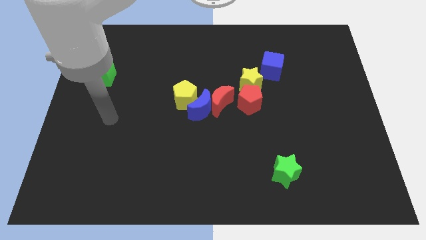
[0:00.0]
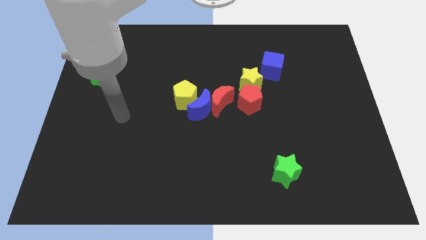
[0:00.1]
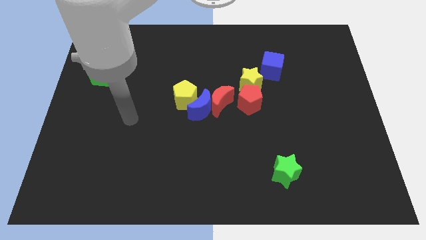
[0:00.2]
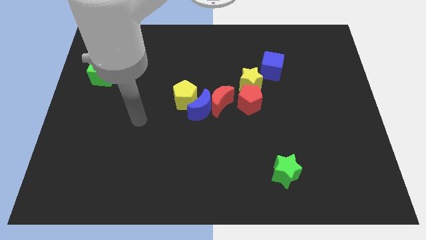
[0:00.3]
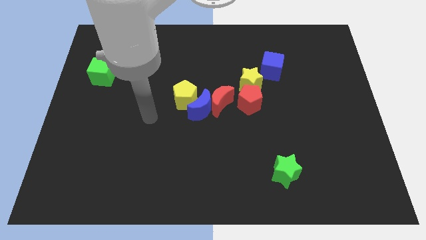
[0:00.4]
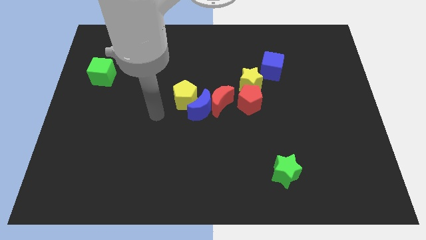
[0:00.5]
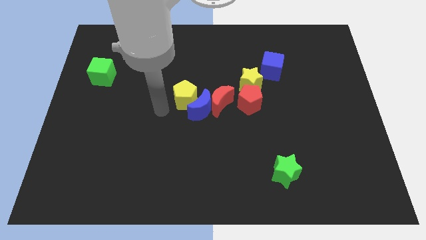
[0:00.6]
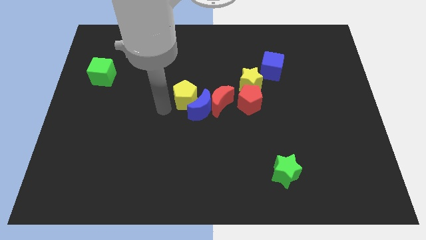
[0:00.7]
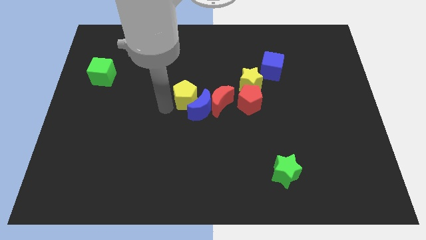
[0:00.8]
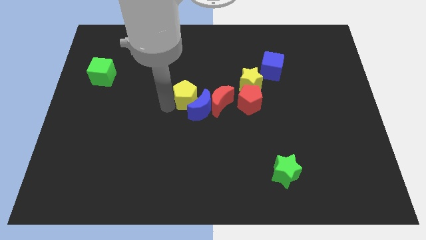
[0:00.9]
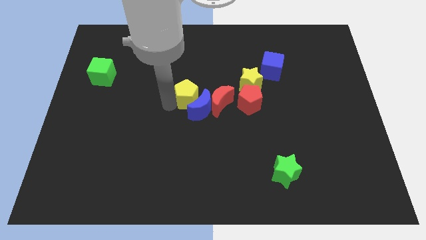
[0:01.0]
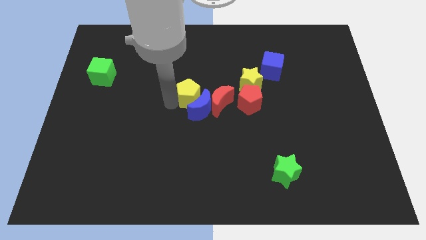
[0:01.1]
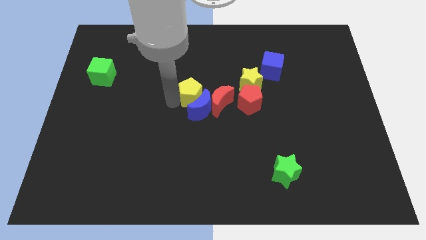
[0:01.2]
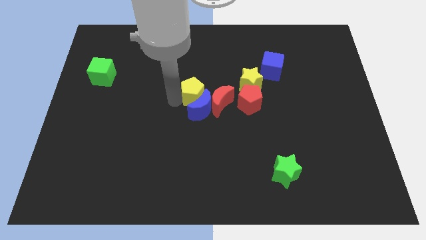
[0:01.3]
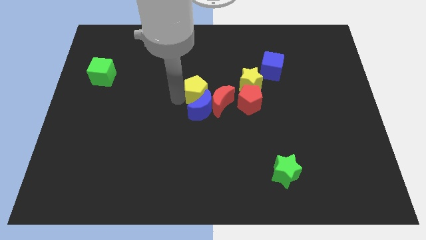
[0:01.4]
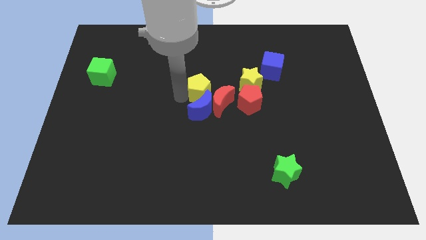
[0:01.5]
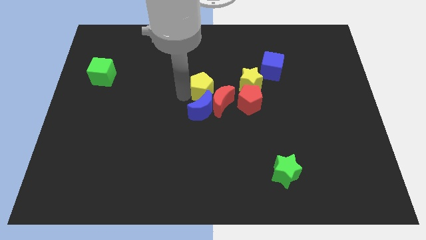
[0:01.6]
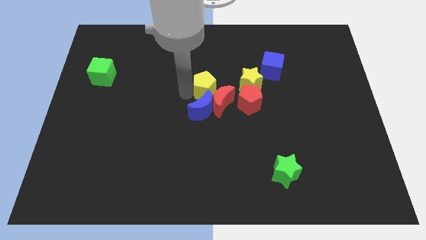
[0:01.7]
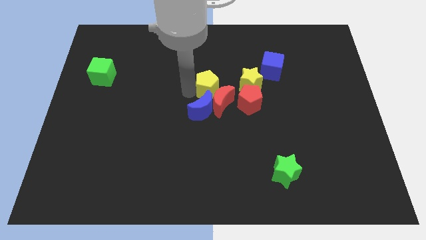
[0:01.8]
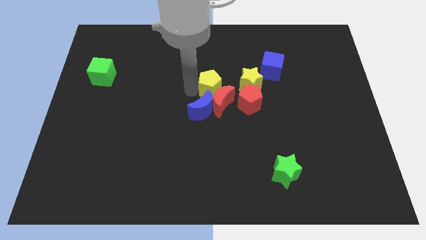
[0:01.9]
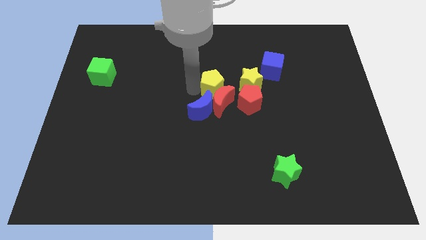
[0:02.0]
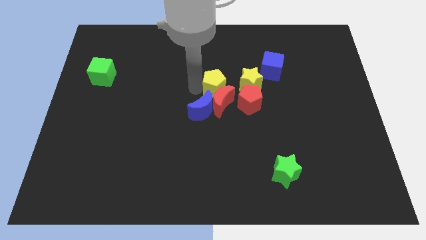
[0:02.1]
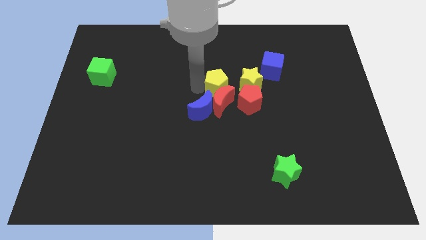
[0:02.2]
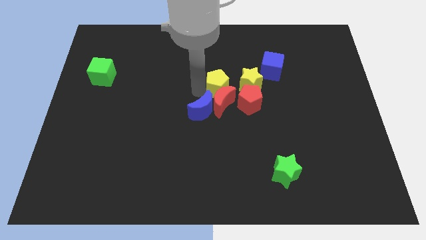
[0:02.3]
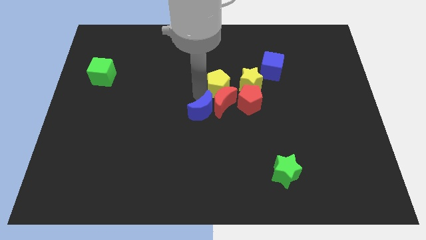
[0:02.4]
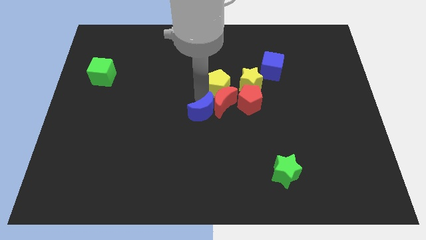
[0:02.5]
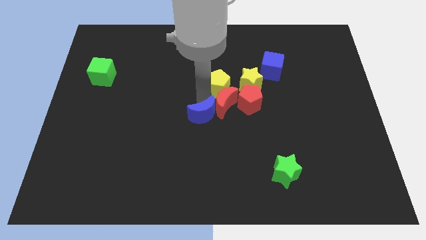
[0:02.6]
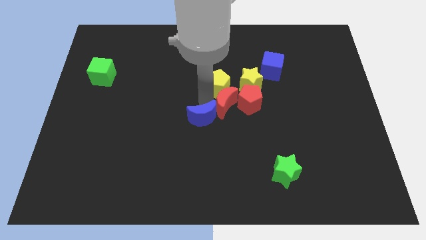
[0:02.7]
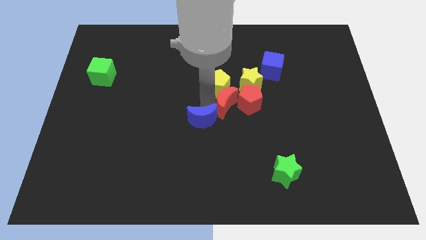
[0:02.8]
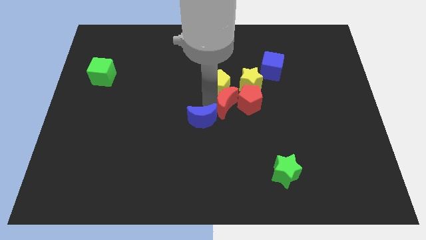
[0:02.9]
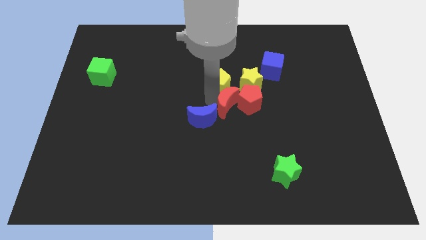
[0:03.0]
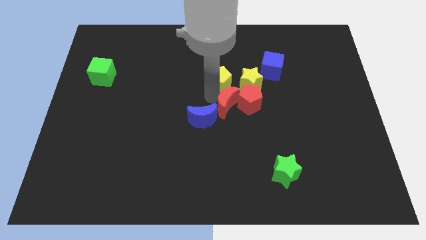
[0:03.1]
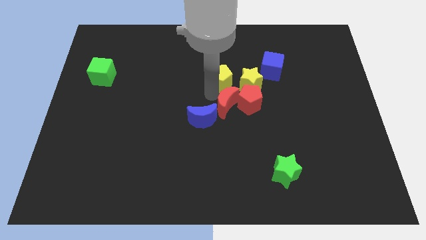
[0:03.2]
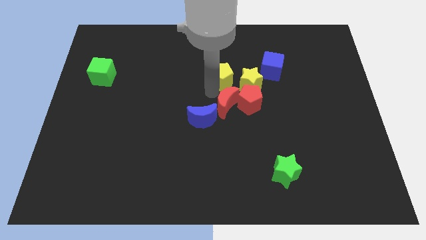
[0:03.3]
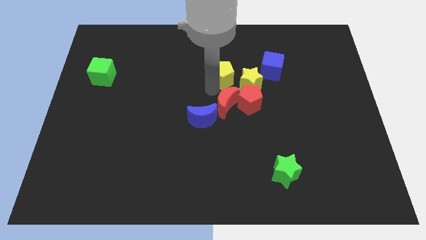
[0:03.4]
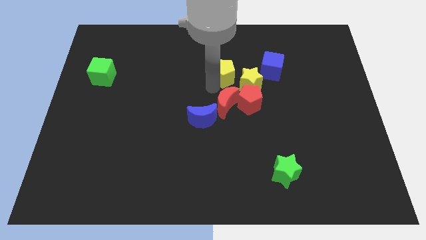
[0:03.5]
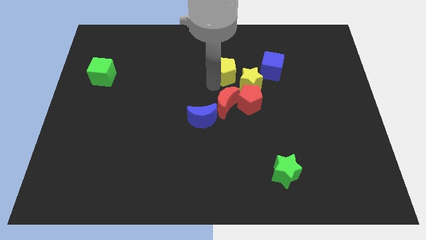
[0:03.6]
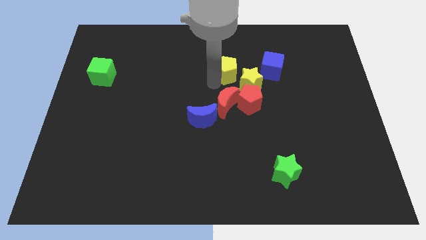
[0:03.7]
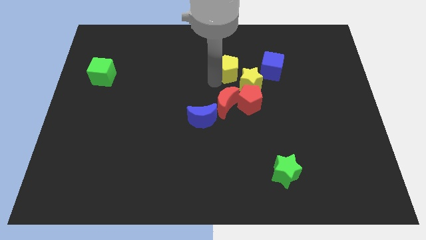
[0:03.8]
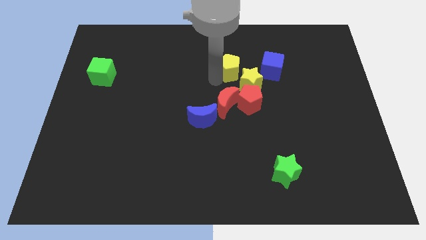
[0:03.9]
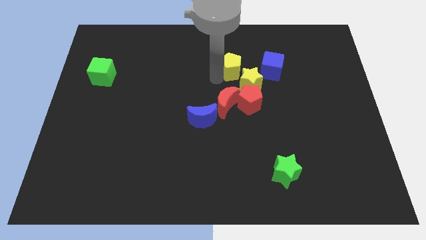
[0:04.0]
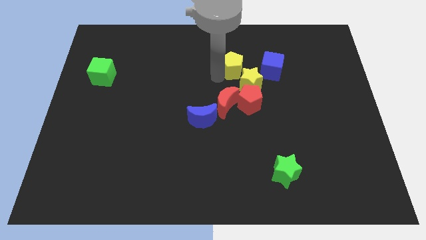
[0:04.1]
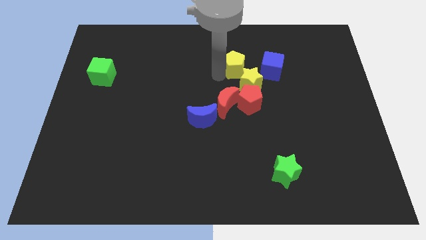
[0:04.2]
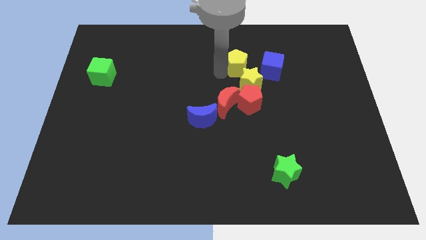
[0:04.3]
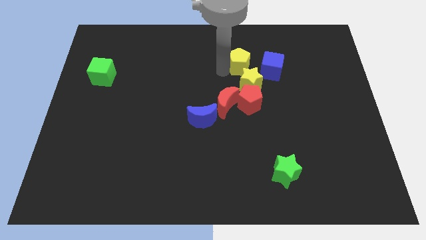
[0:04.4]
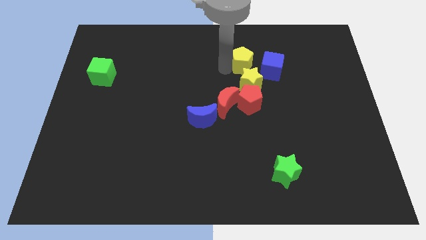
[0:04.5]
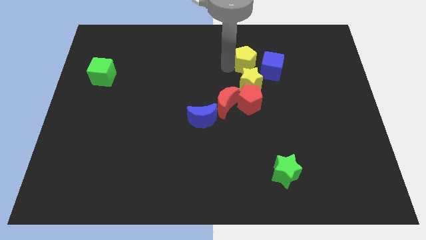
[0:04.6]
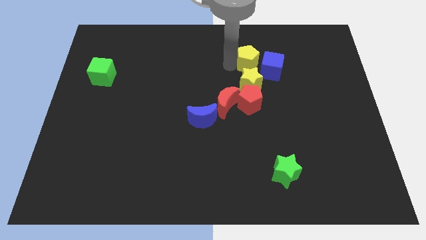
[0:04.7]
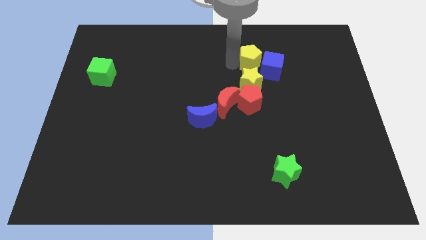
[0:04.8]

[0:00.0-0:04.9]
slide the yellow pentagon close to the blue cube

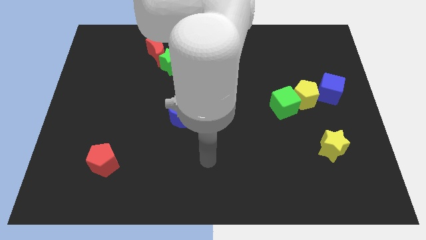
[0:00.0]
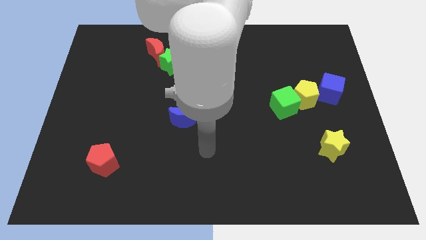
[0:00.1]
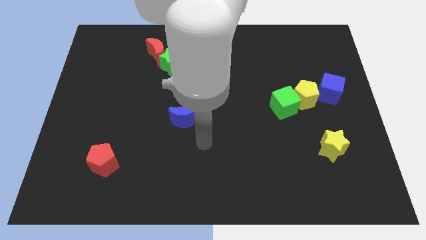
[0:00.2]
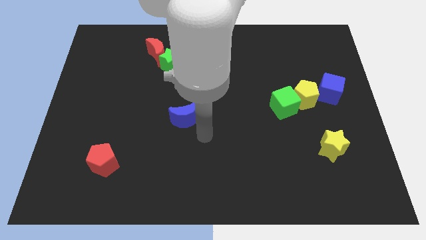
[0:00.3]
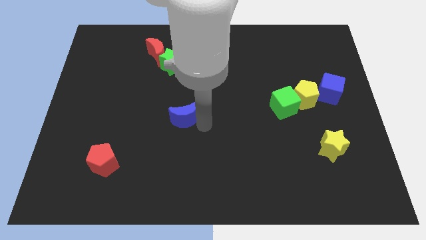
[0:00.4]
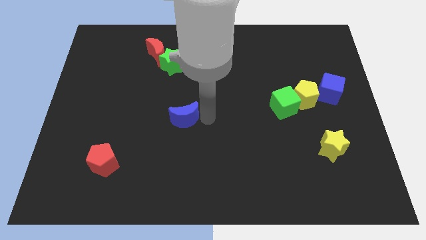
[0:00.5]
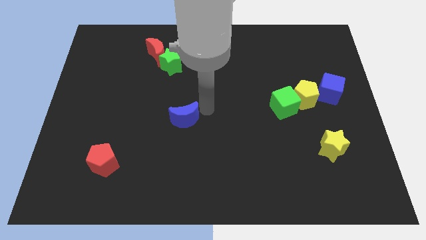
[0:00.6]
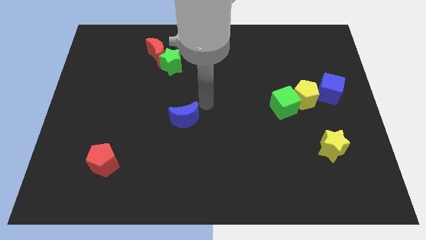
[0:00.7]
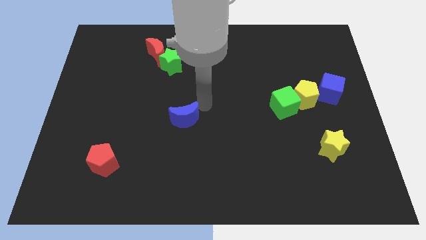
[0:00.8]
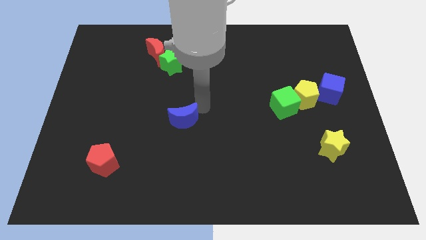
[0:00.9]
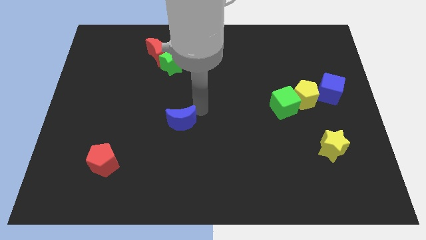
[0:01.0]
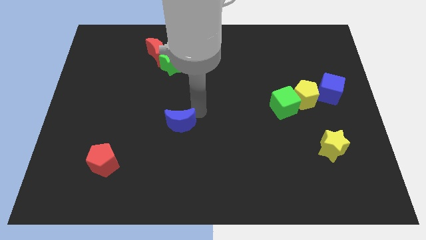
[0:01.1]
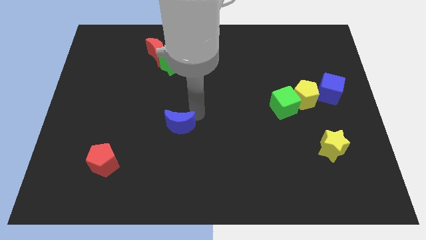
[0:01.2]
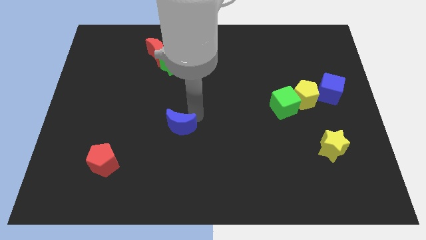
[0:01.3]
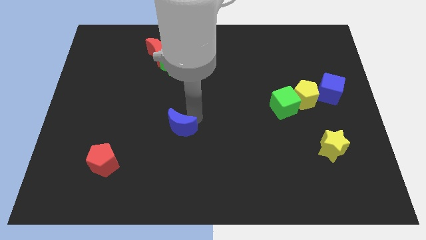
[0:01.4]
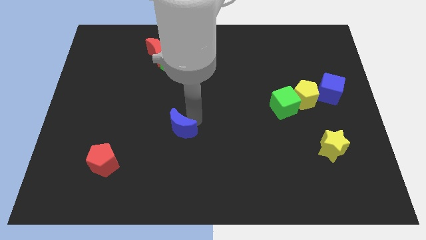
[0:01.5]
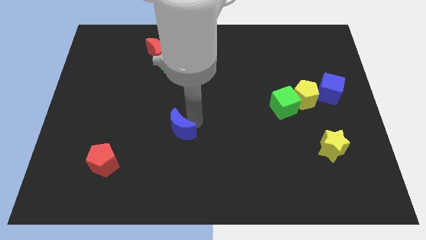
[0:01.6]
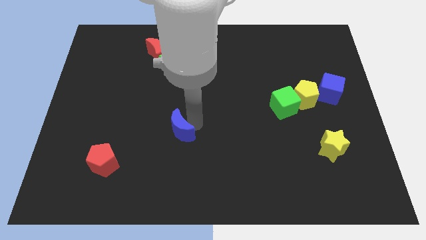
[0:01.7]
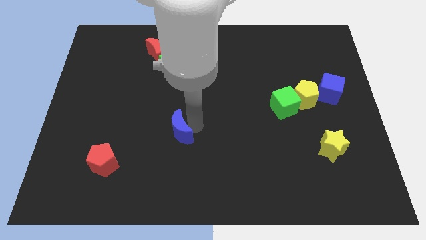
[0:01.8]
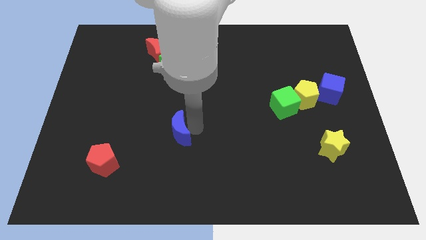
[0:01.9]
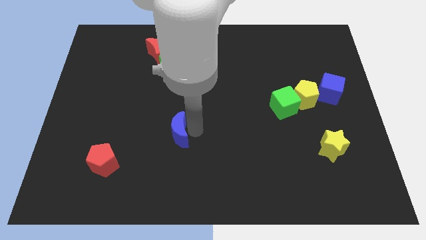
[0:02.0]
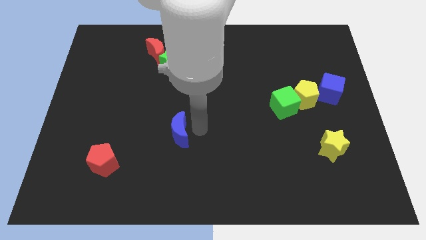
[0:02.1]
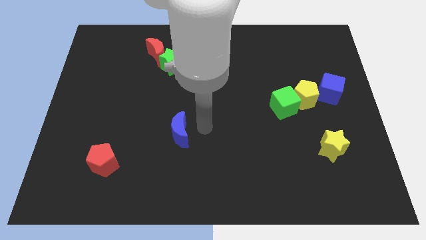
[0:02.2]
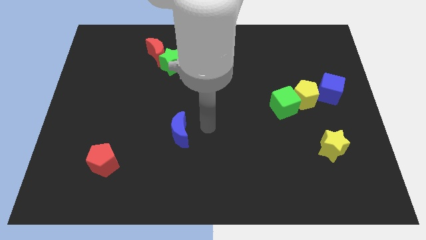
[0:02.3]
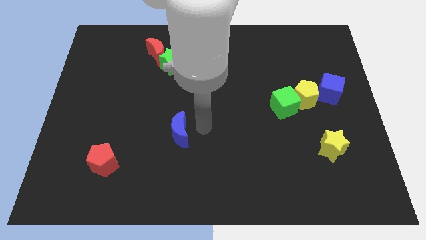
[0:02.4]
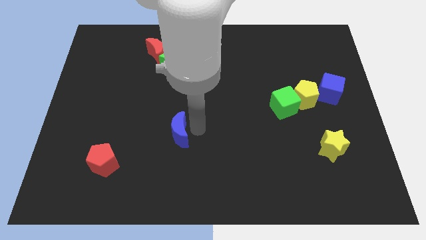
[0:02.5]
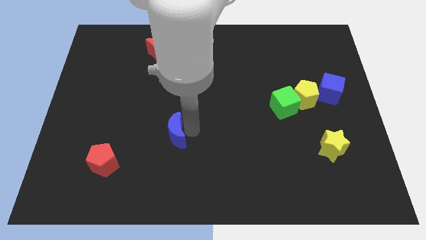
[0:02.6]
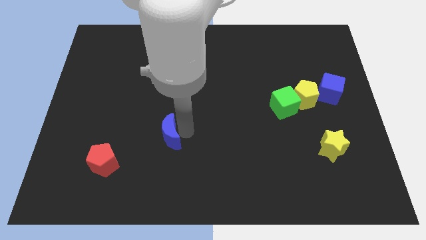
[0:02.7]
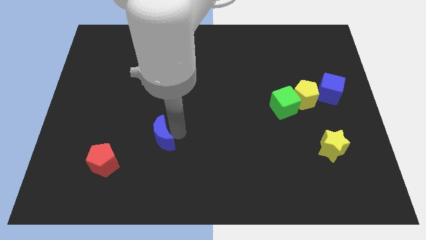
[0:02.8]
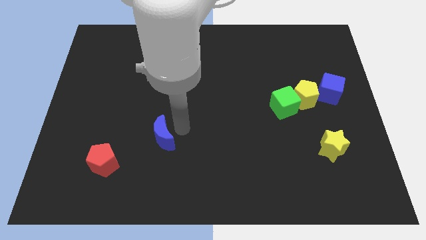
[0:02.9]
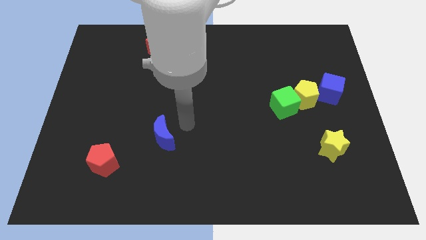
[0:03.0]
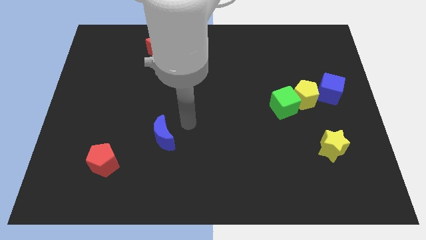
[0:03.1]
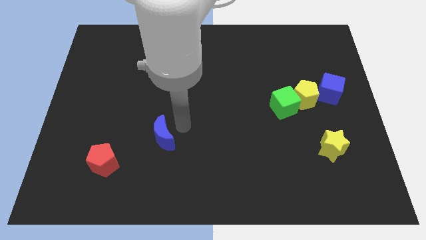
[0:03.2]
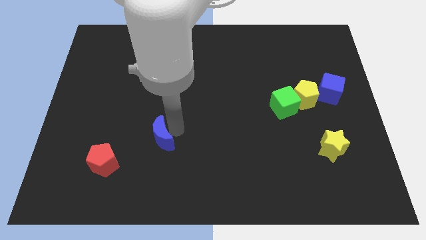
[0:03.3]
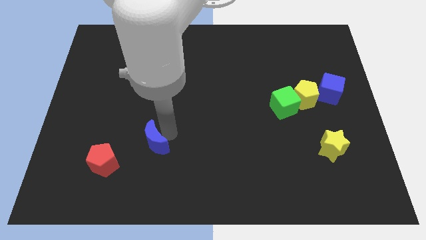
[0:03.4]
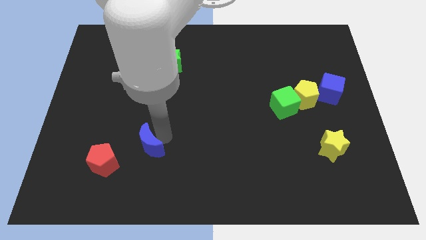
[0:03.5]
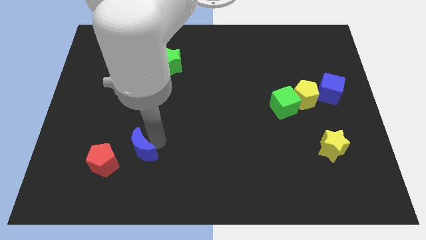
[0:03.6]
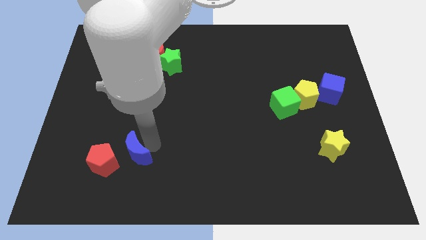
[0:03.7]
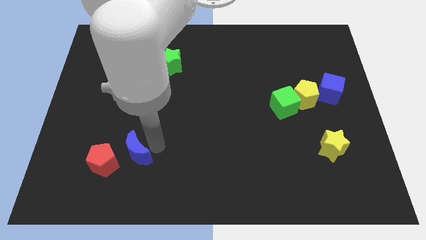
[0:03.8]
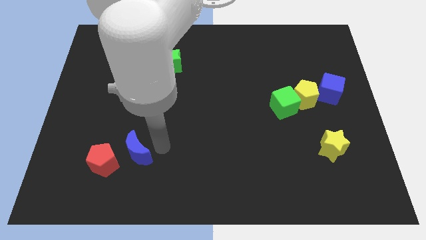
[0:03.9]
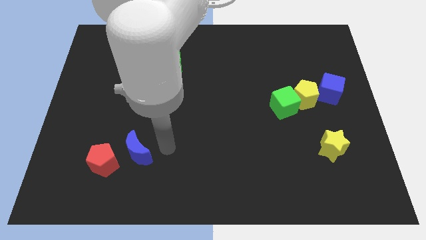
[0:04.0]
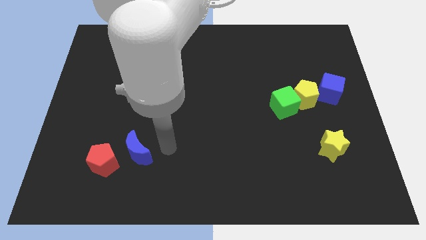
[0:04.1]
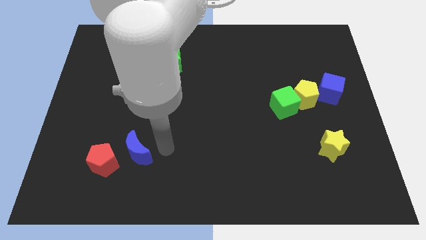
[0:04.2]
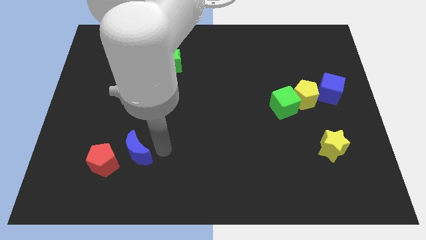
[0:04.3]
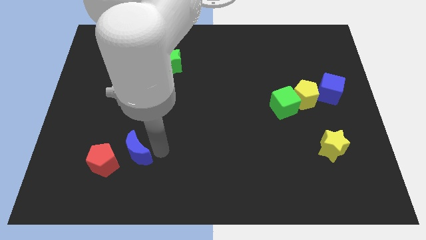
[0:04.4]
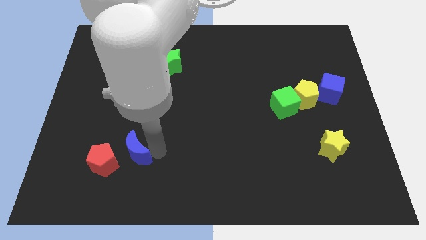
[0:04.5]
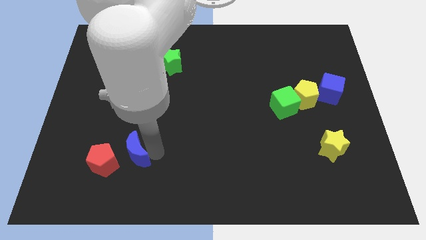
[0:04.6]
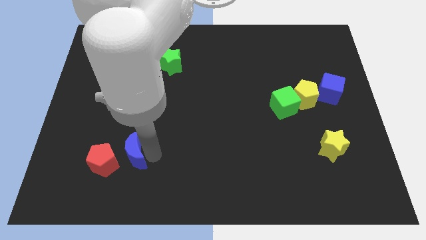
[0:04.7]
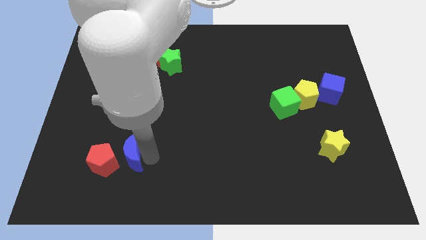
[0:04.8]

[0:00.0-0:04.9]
slide the blue moon towards the red pentagon
